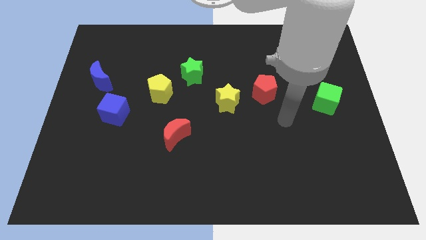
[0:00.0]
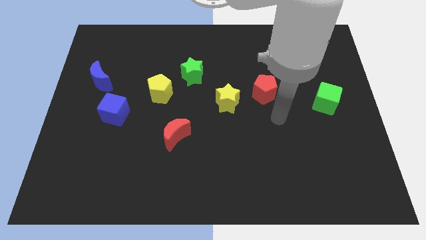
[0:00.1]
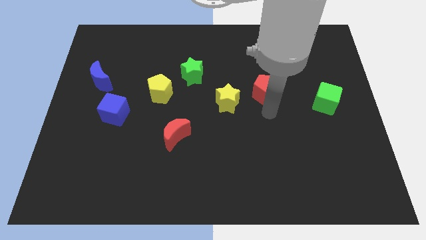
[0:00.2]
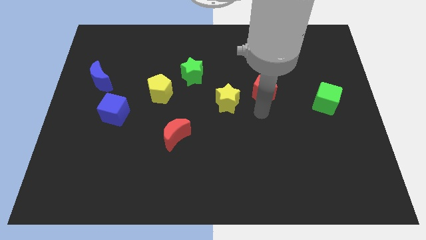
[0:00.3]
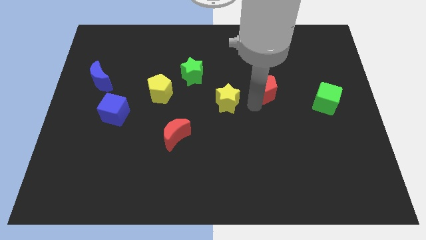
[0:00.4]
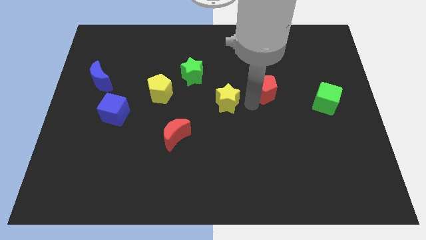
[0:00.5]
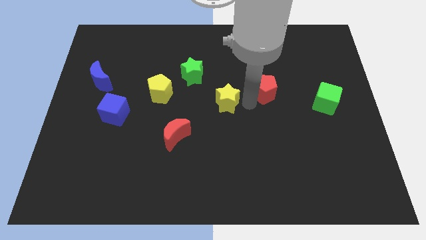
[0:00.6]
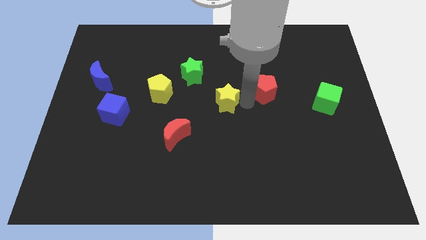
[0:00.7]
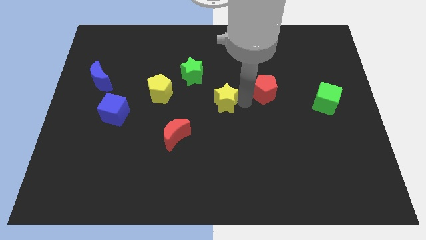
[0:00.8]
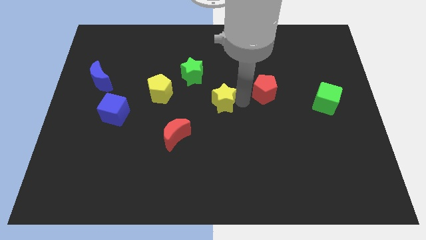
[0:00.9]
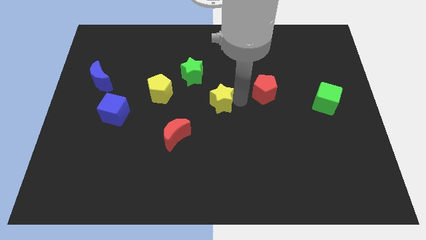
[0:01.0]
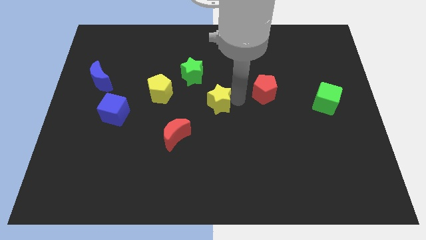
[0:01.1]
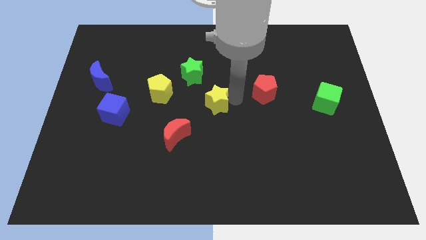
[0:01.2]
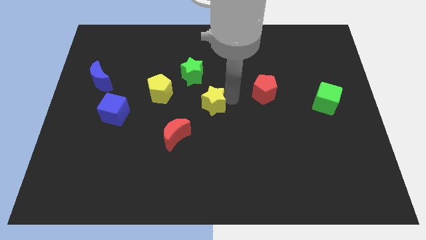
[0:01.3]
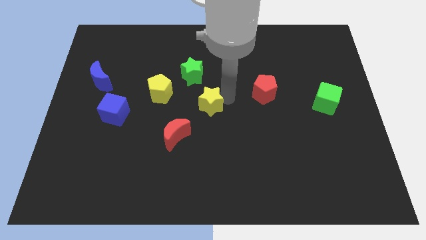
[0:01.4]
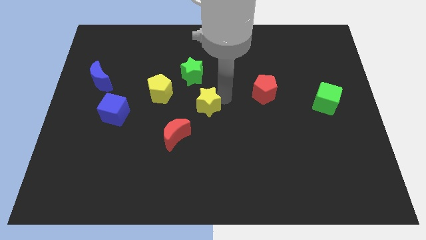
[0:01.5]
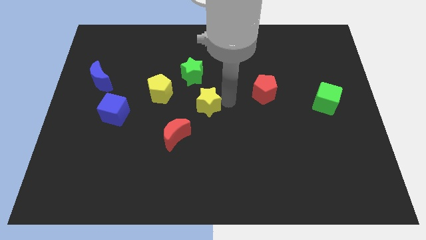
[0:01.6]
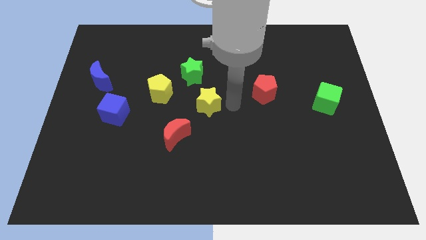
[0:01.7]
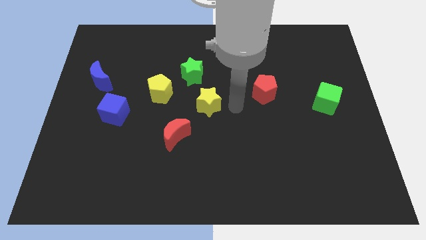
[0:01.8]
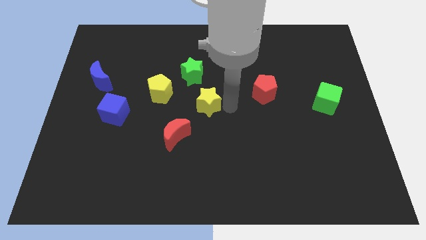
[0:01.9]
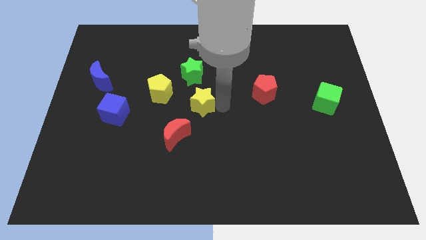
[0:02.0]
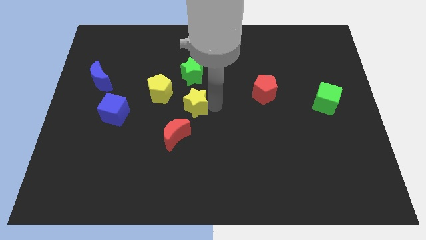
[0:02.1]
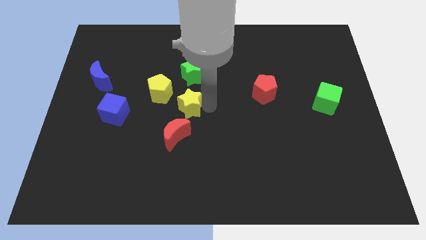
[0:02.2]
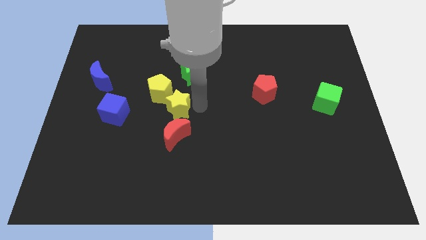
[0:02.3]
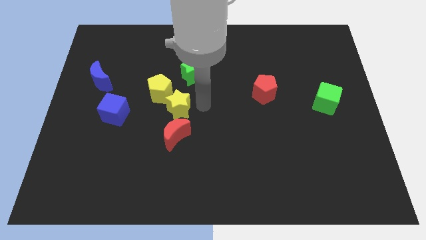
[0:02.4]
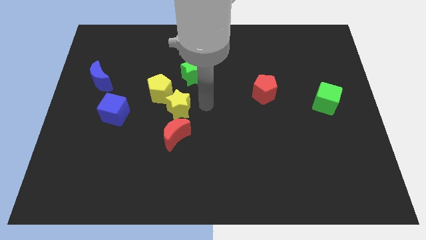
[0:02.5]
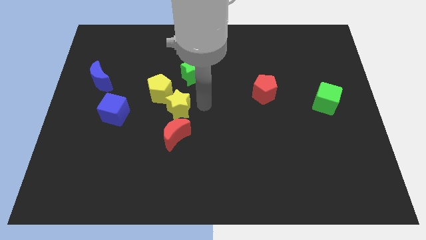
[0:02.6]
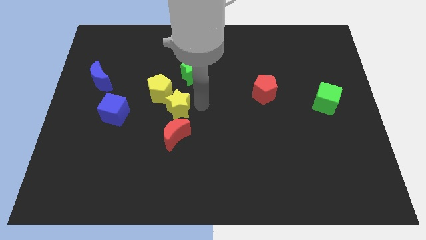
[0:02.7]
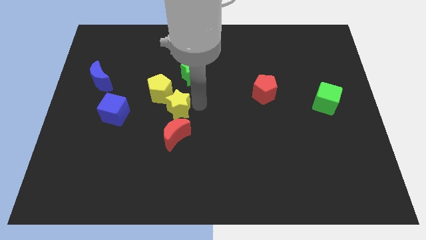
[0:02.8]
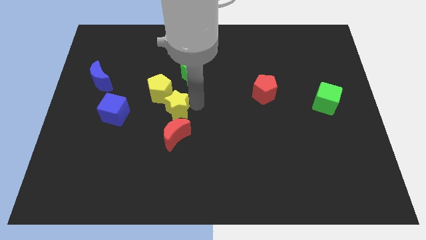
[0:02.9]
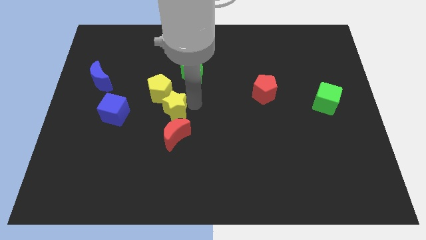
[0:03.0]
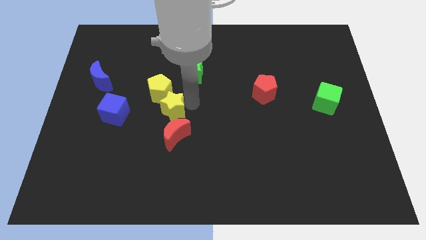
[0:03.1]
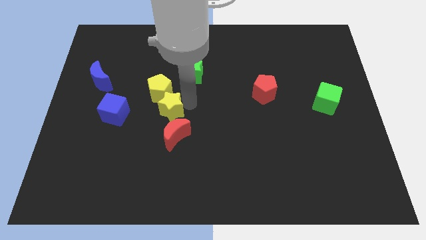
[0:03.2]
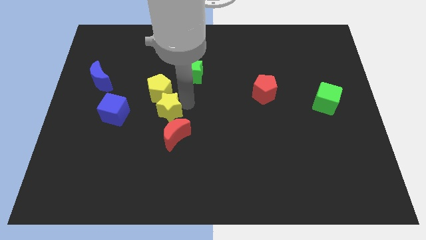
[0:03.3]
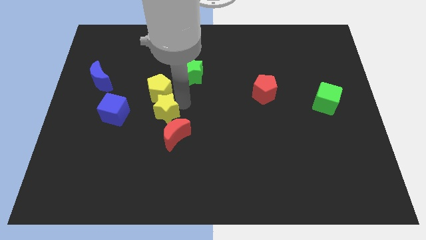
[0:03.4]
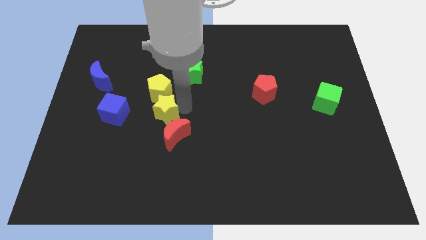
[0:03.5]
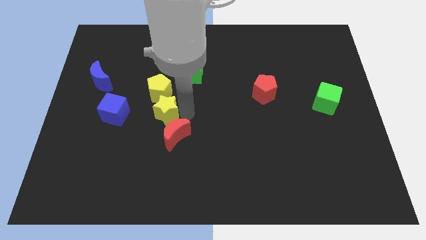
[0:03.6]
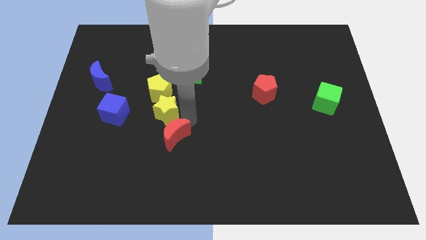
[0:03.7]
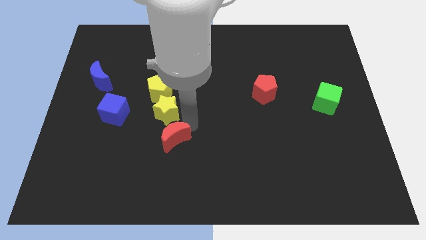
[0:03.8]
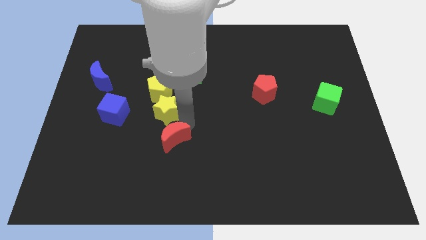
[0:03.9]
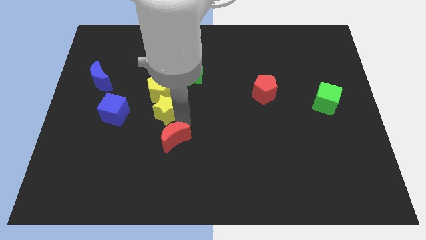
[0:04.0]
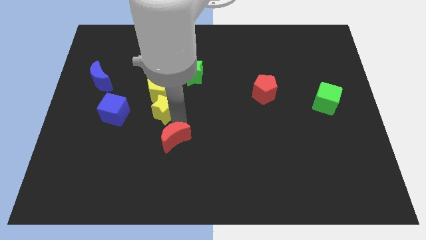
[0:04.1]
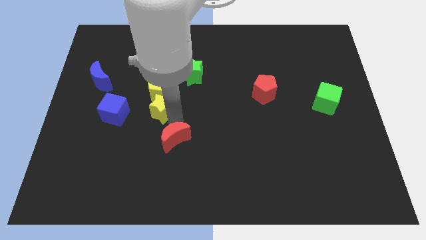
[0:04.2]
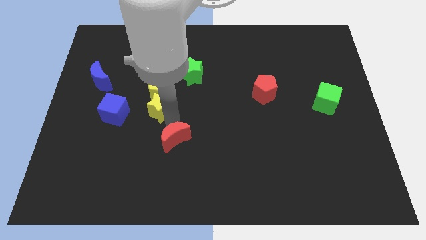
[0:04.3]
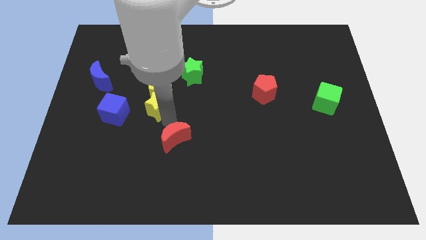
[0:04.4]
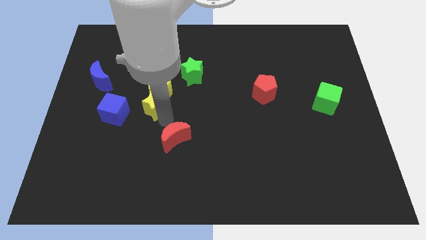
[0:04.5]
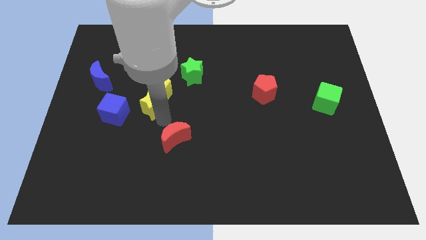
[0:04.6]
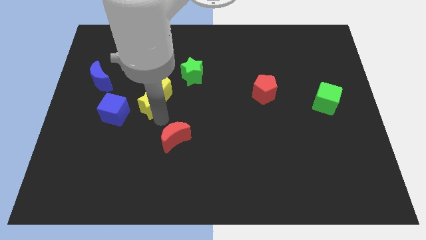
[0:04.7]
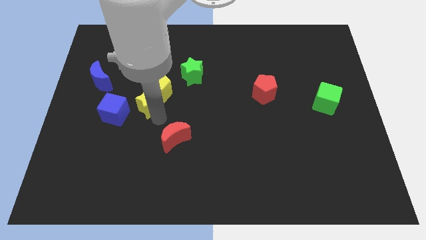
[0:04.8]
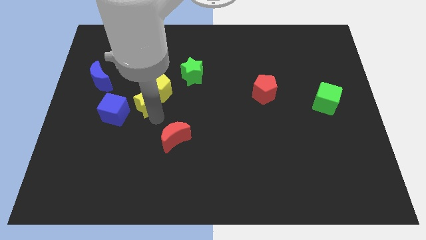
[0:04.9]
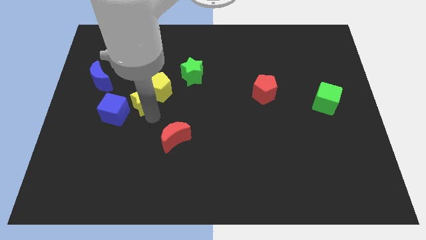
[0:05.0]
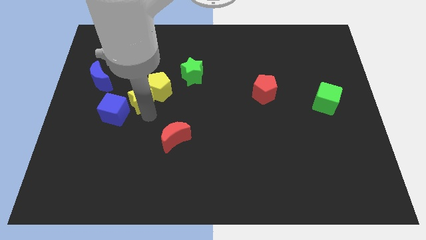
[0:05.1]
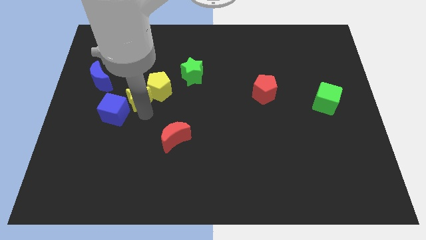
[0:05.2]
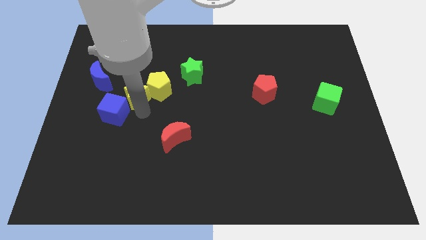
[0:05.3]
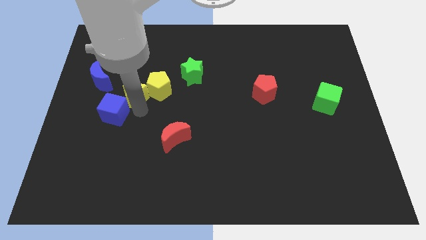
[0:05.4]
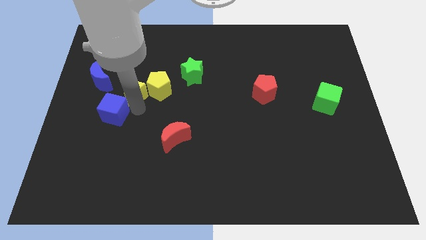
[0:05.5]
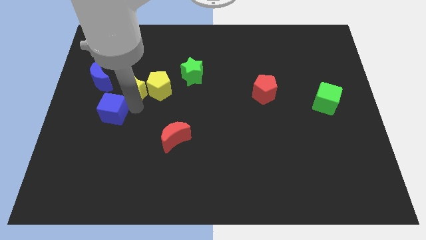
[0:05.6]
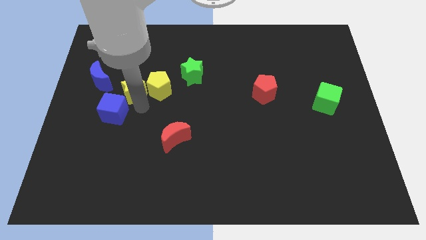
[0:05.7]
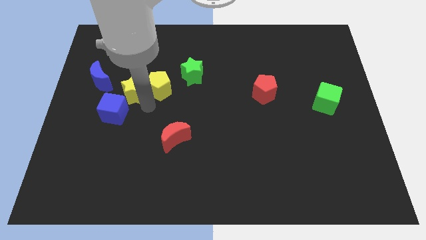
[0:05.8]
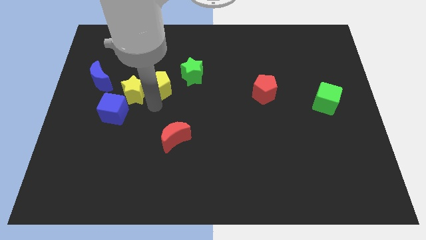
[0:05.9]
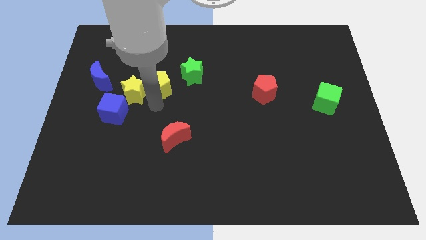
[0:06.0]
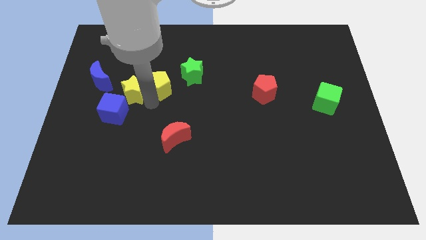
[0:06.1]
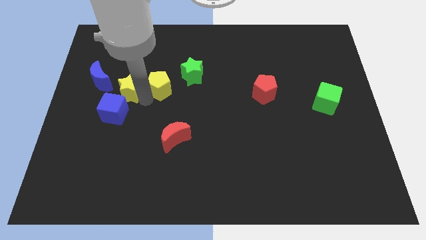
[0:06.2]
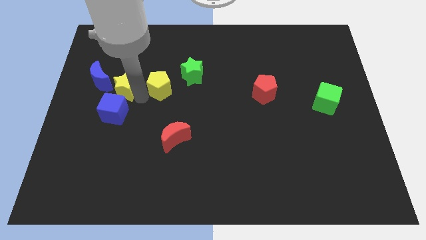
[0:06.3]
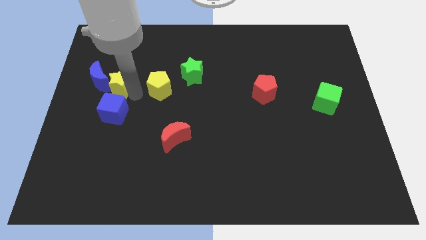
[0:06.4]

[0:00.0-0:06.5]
put the yellow star close to the blue moon

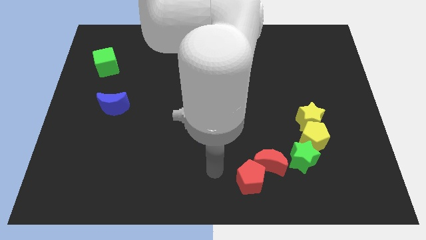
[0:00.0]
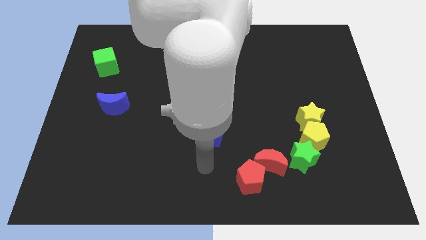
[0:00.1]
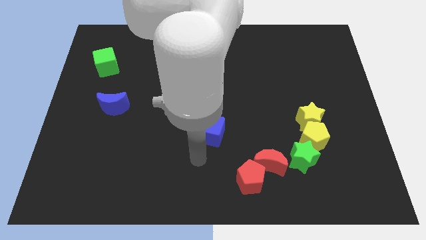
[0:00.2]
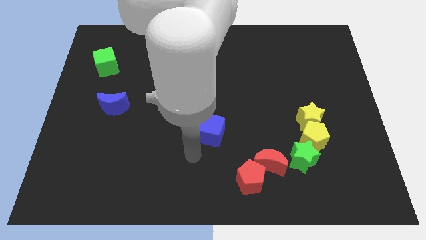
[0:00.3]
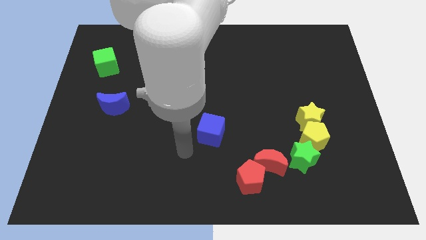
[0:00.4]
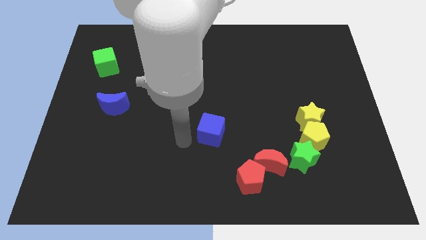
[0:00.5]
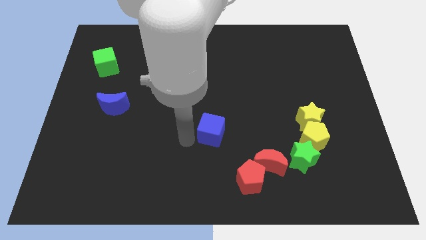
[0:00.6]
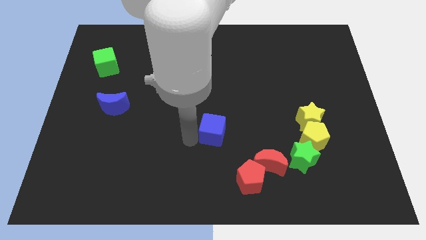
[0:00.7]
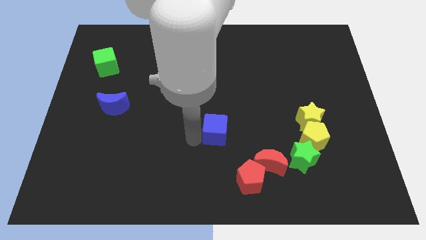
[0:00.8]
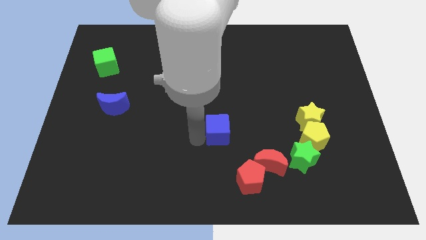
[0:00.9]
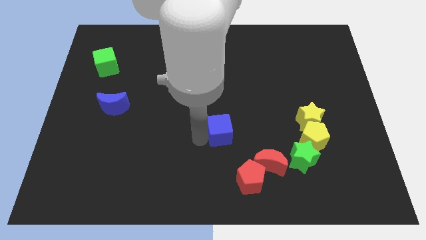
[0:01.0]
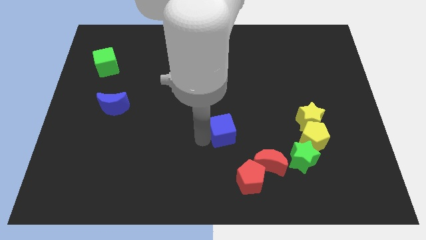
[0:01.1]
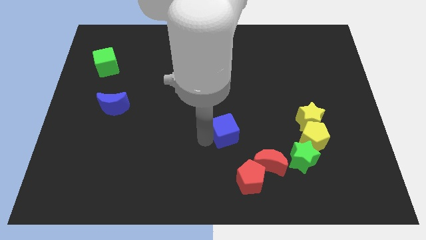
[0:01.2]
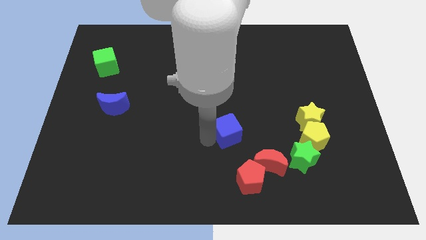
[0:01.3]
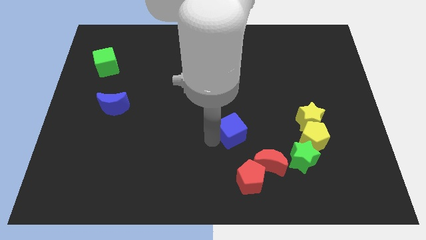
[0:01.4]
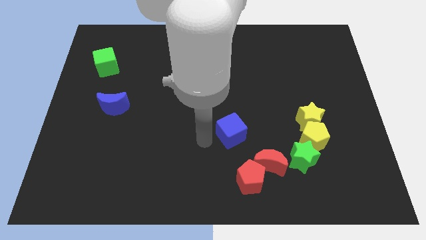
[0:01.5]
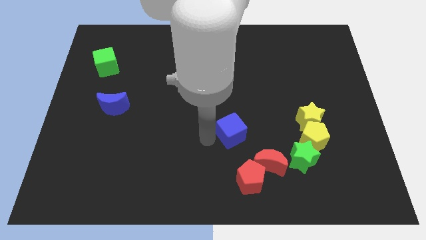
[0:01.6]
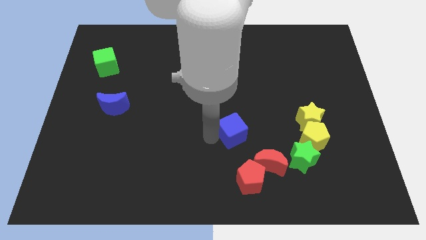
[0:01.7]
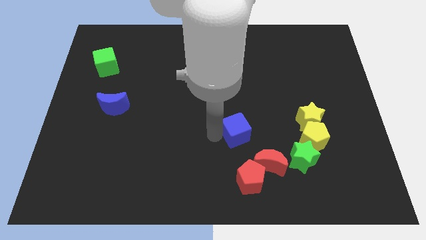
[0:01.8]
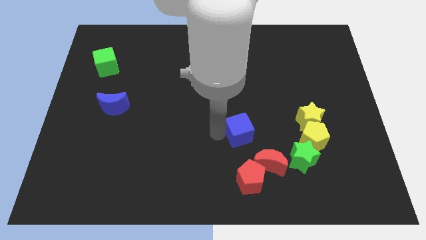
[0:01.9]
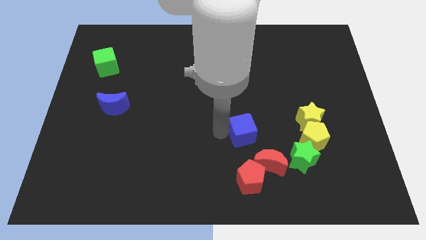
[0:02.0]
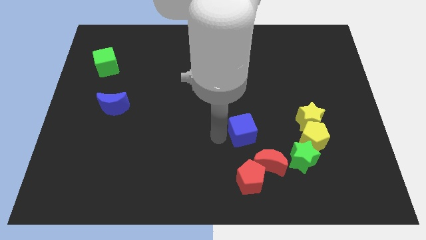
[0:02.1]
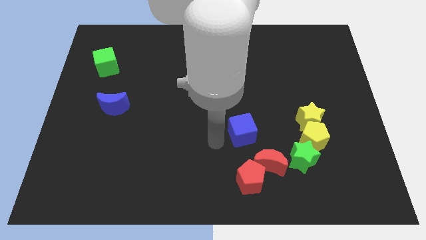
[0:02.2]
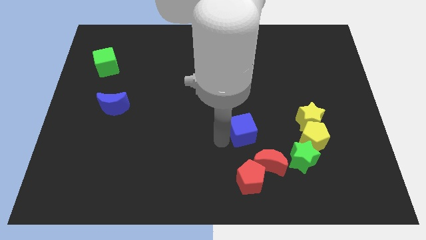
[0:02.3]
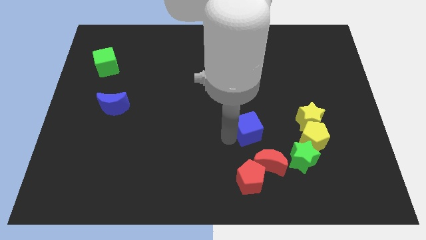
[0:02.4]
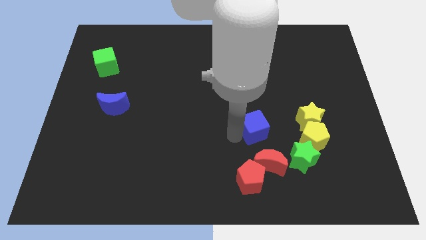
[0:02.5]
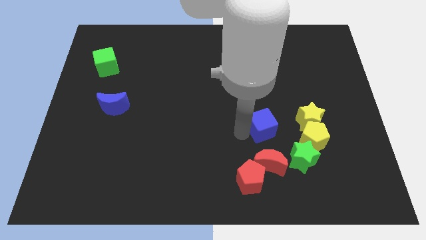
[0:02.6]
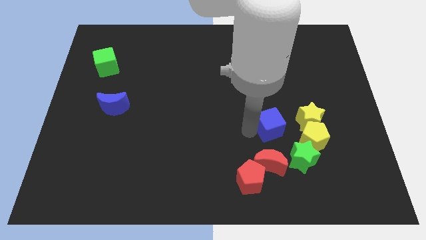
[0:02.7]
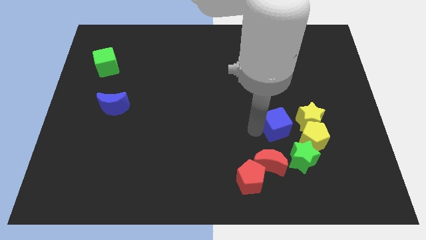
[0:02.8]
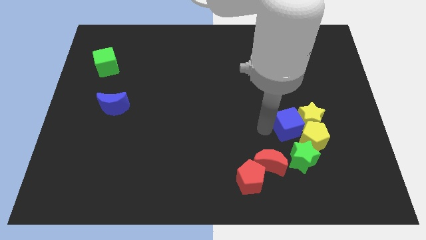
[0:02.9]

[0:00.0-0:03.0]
push the blue cube next to the yellow star
